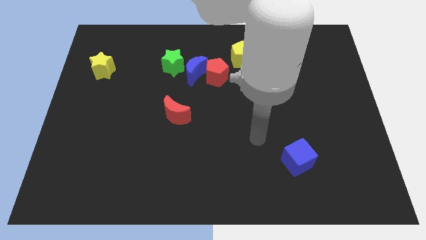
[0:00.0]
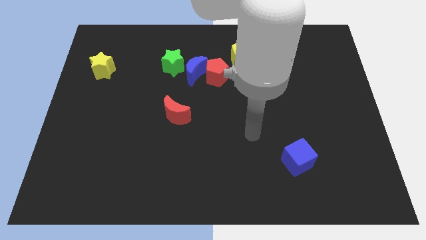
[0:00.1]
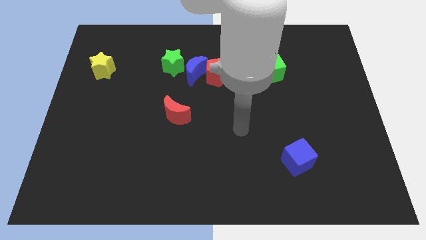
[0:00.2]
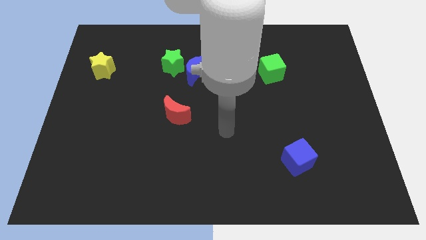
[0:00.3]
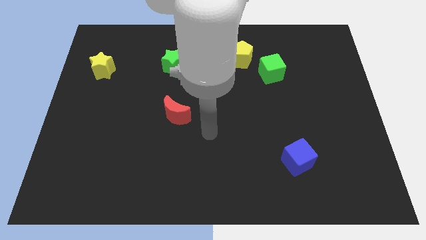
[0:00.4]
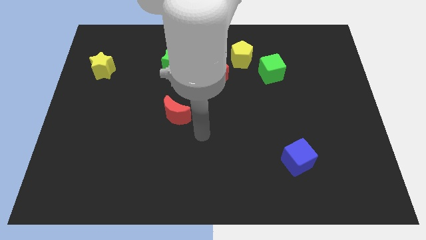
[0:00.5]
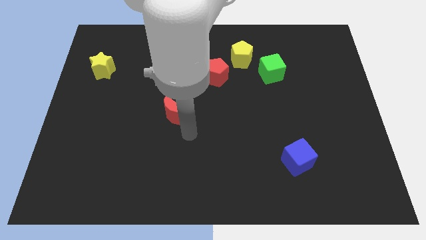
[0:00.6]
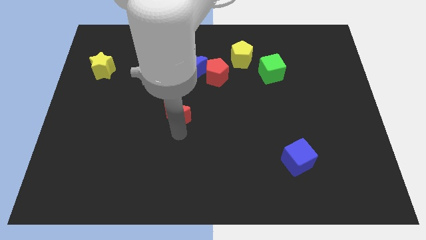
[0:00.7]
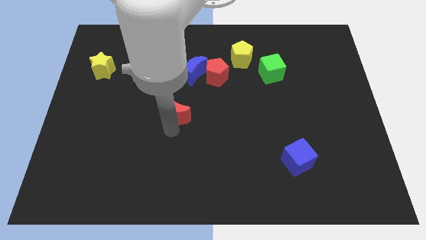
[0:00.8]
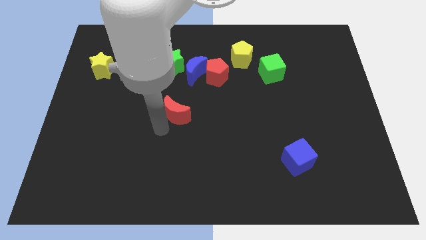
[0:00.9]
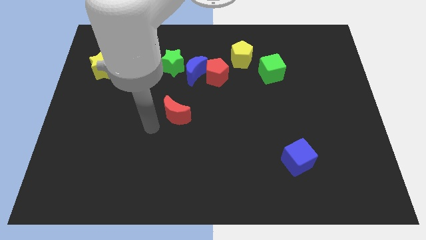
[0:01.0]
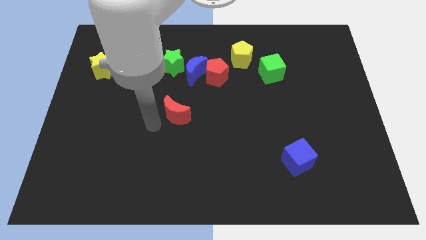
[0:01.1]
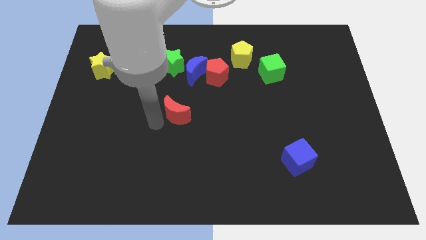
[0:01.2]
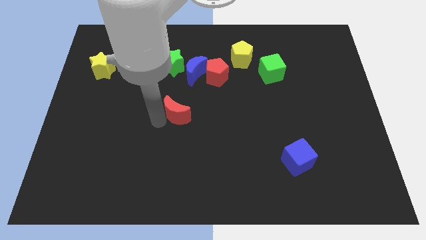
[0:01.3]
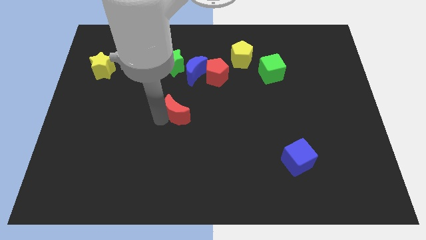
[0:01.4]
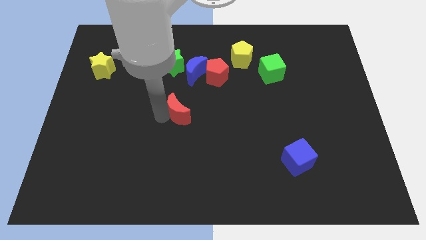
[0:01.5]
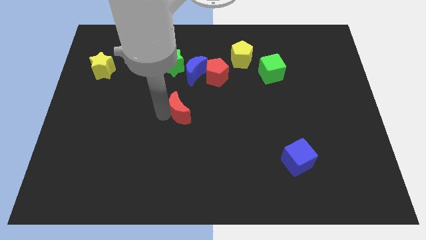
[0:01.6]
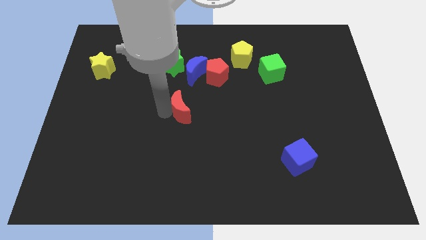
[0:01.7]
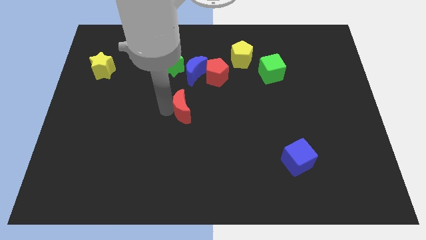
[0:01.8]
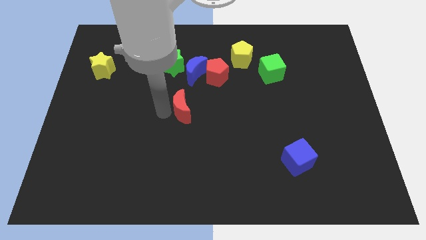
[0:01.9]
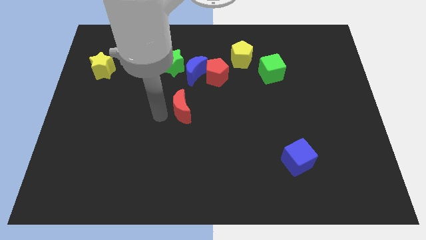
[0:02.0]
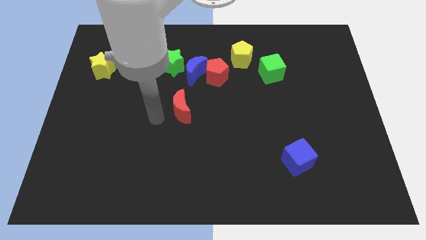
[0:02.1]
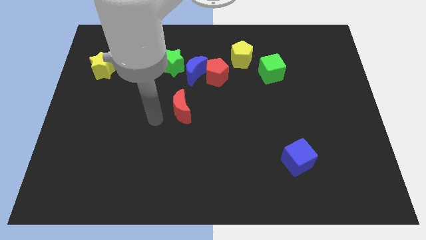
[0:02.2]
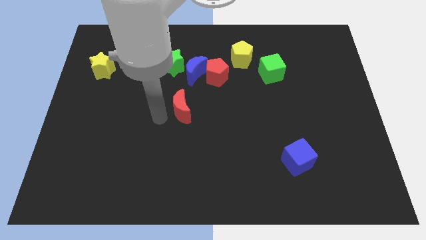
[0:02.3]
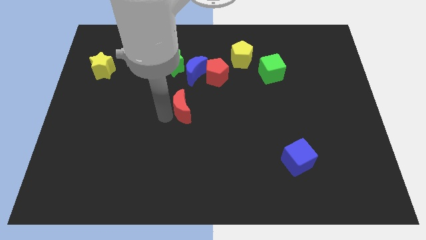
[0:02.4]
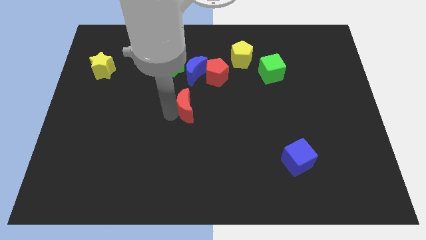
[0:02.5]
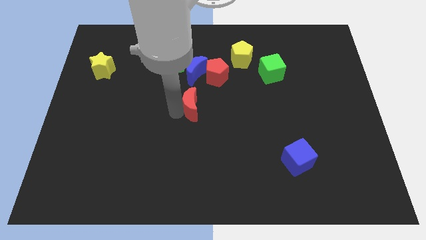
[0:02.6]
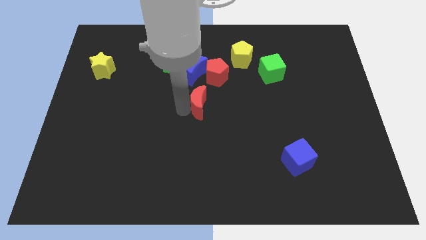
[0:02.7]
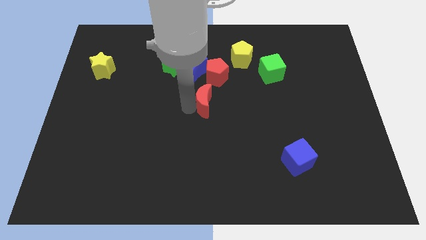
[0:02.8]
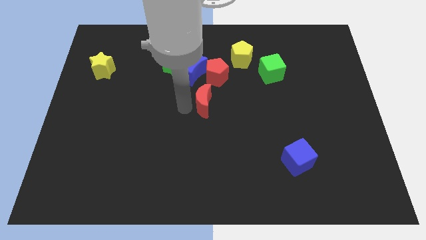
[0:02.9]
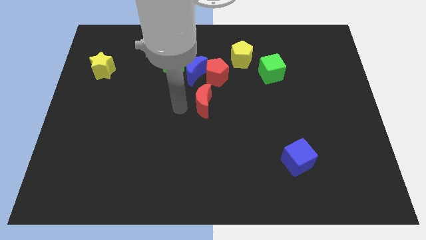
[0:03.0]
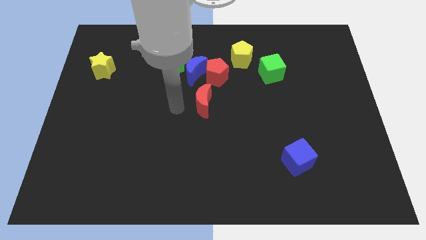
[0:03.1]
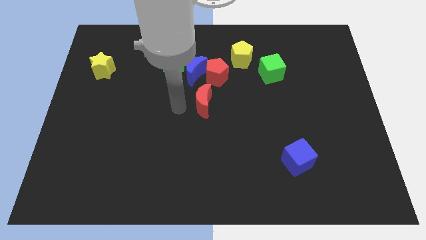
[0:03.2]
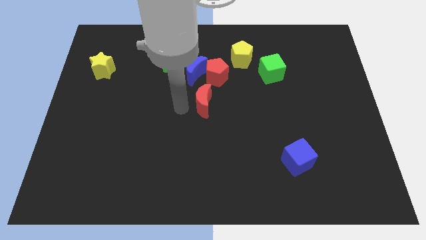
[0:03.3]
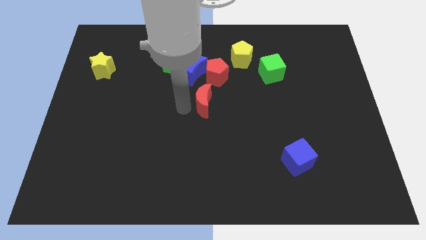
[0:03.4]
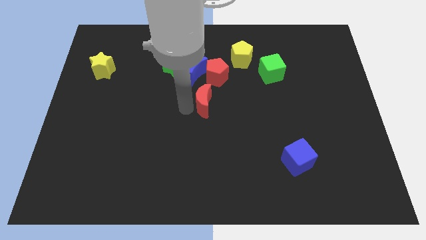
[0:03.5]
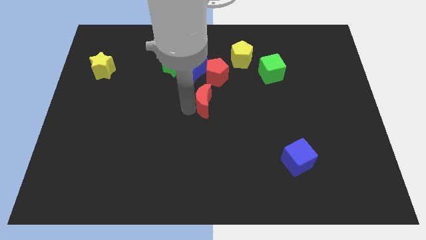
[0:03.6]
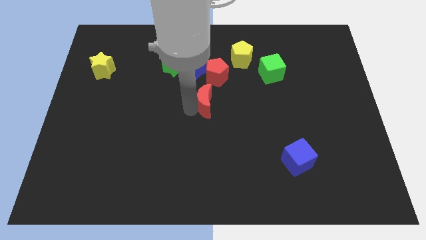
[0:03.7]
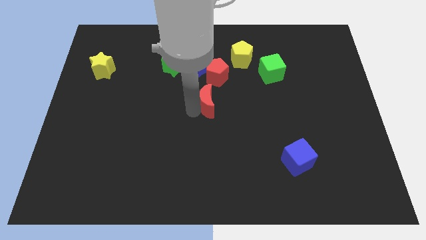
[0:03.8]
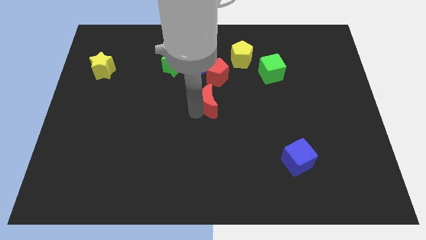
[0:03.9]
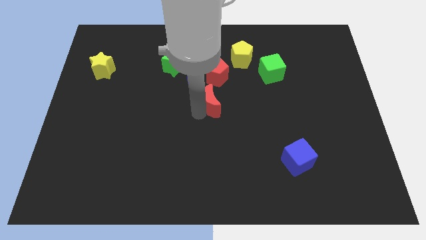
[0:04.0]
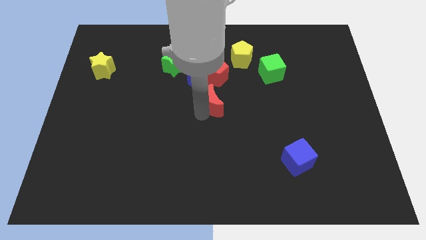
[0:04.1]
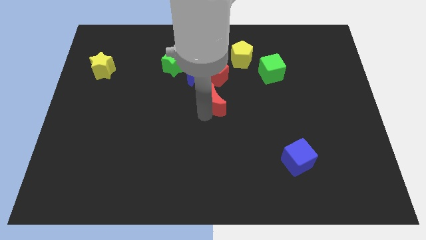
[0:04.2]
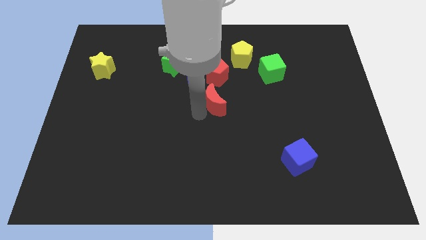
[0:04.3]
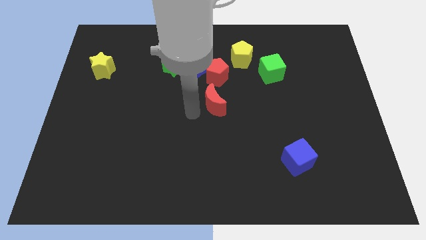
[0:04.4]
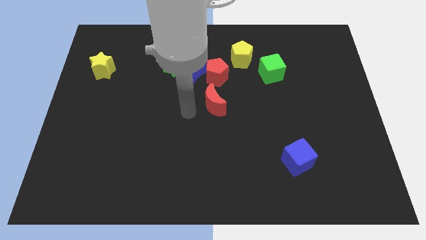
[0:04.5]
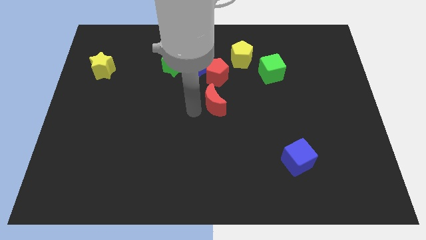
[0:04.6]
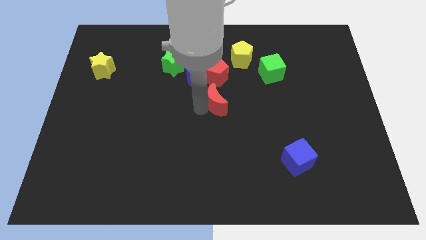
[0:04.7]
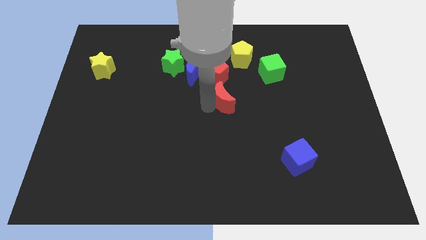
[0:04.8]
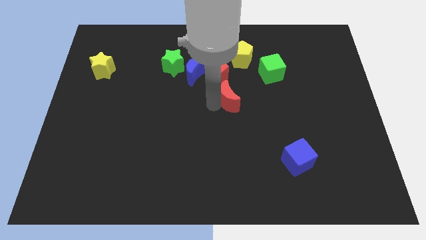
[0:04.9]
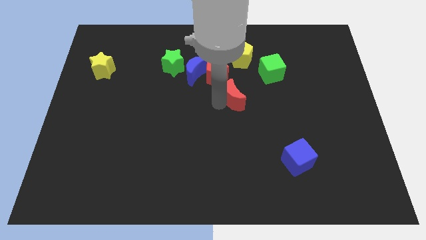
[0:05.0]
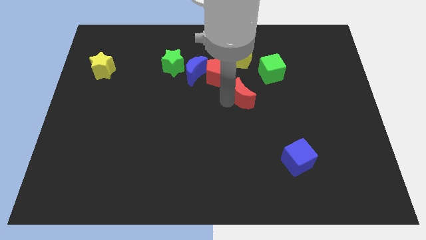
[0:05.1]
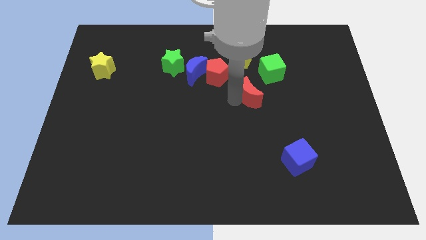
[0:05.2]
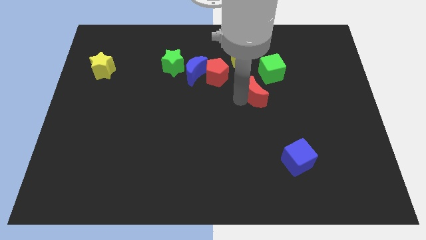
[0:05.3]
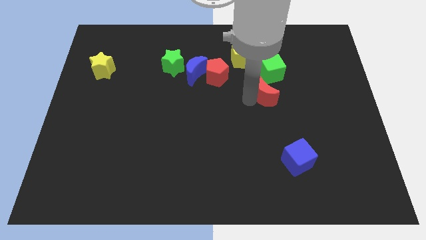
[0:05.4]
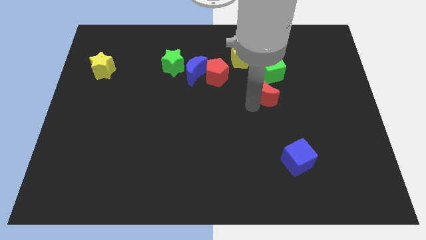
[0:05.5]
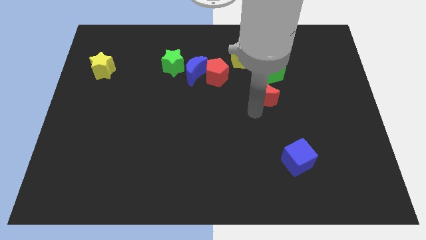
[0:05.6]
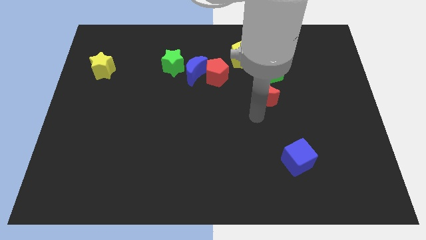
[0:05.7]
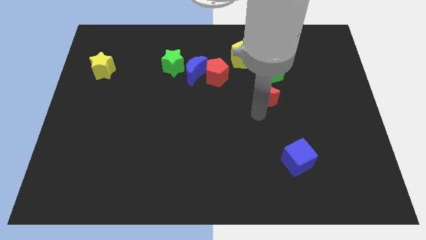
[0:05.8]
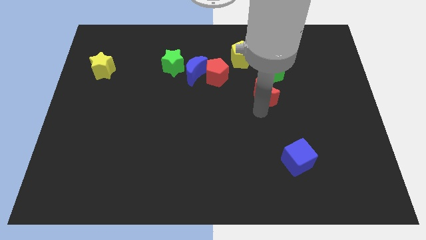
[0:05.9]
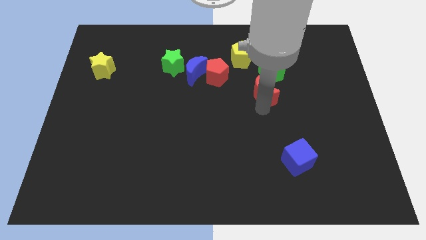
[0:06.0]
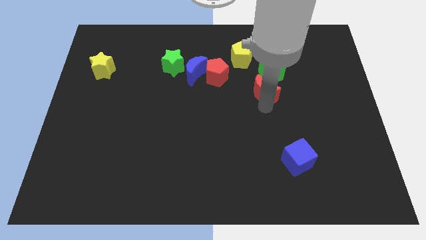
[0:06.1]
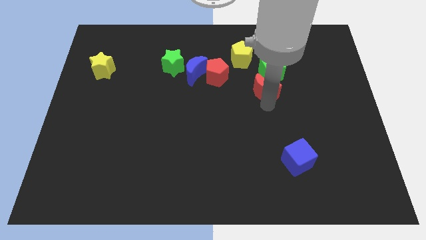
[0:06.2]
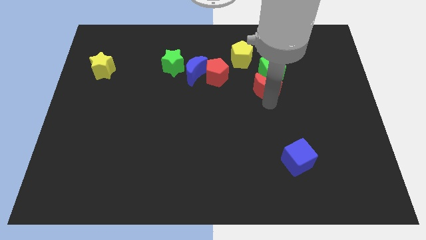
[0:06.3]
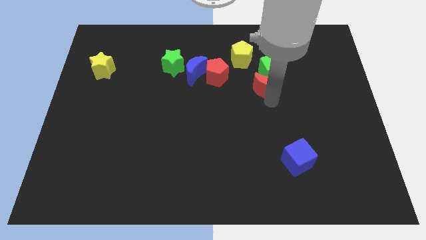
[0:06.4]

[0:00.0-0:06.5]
put the red moon next to the green cube
